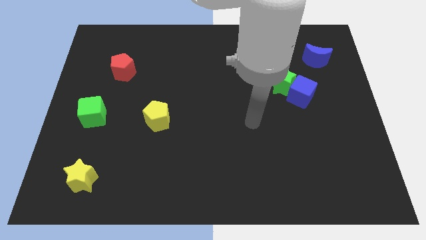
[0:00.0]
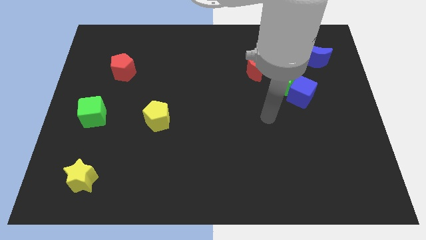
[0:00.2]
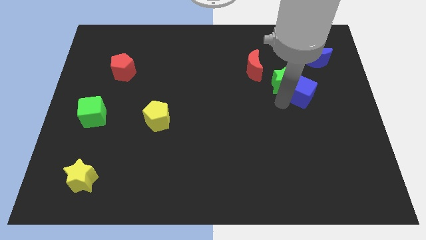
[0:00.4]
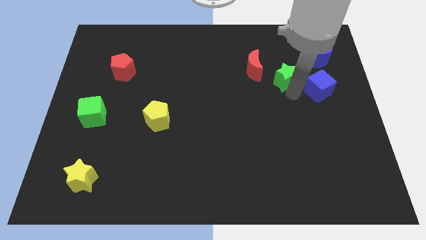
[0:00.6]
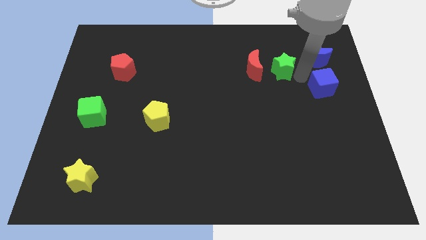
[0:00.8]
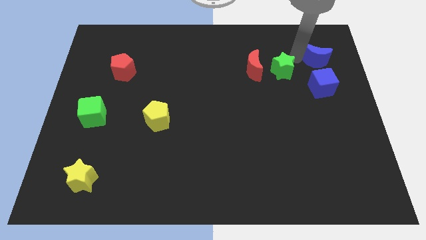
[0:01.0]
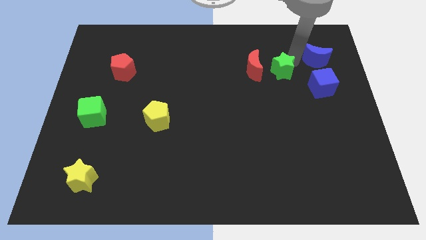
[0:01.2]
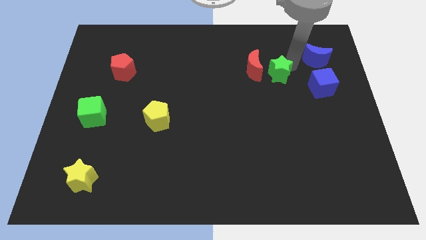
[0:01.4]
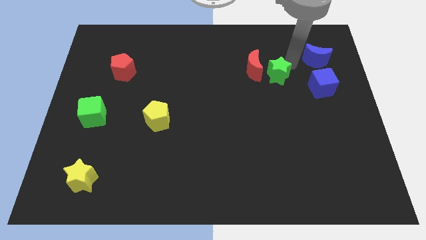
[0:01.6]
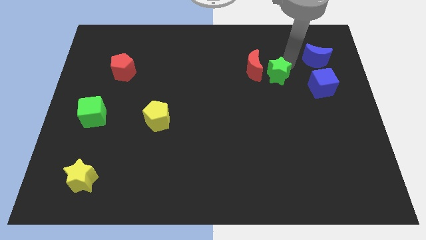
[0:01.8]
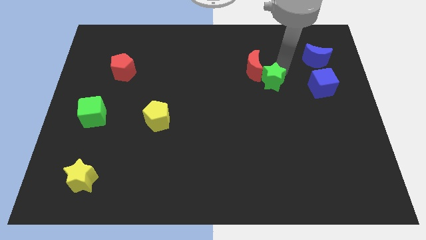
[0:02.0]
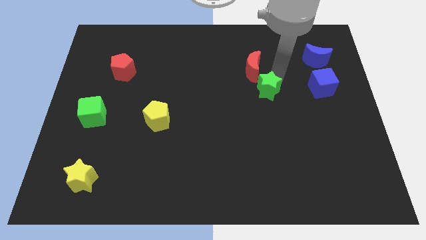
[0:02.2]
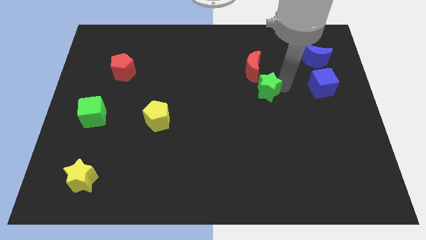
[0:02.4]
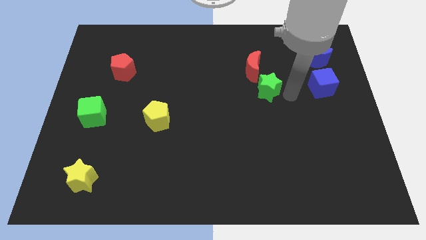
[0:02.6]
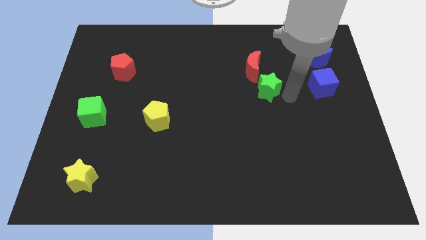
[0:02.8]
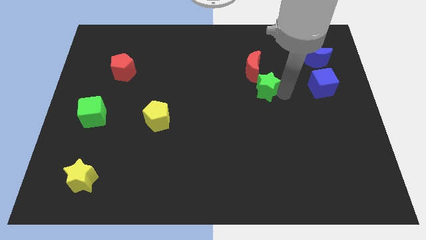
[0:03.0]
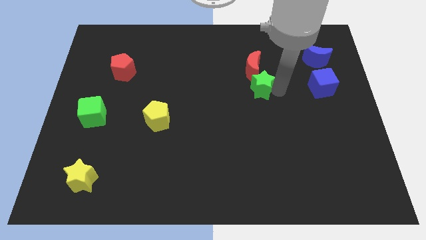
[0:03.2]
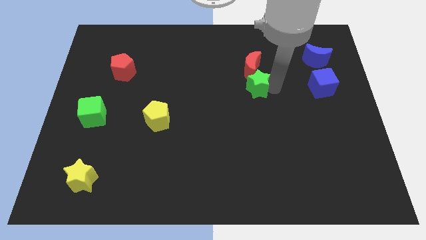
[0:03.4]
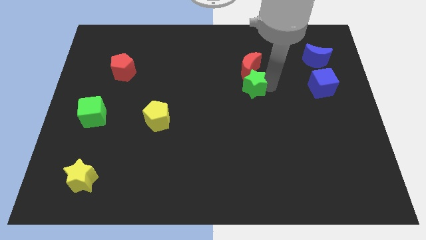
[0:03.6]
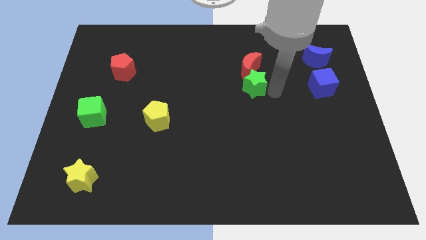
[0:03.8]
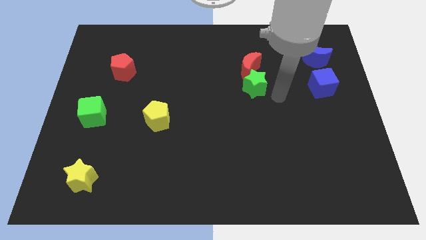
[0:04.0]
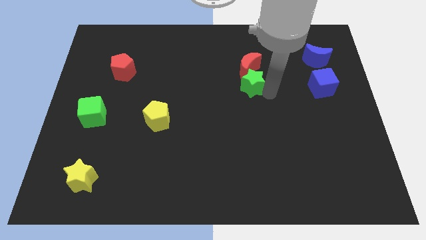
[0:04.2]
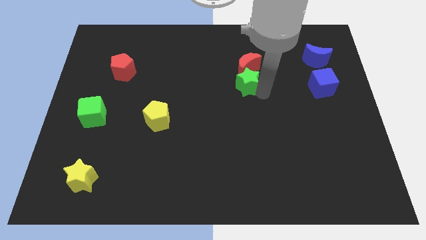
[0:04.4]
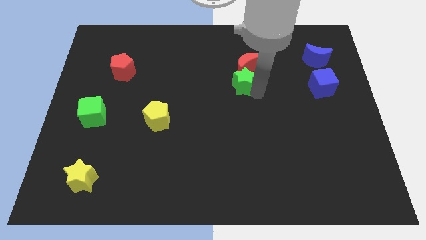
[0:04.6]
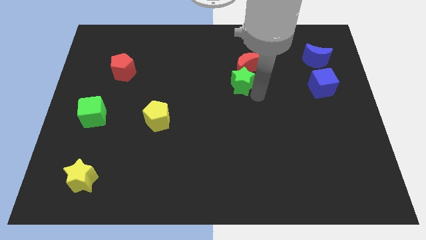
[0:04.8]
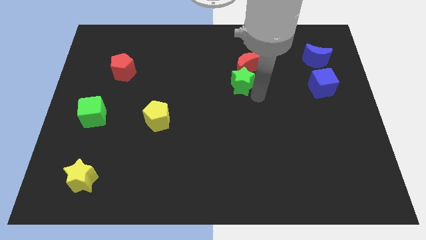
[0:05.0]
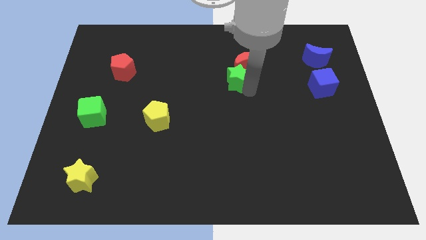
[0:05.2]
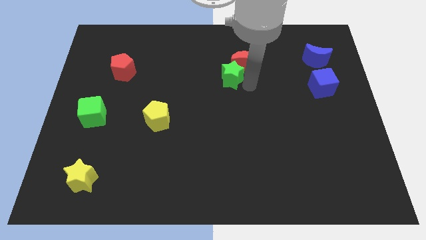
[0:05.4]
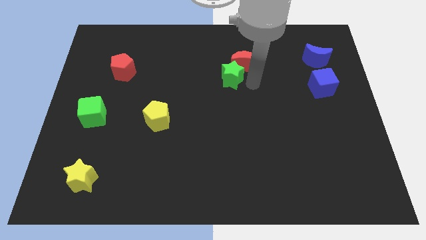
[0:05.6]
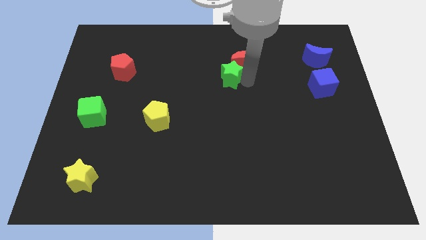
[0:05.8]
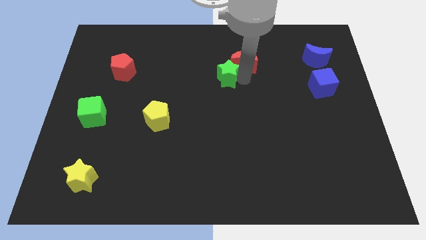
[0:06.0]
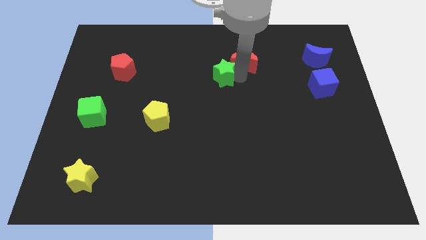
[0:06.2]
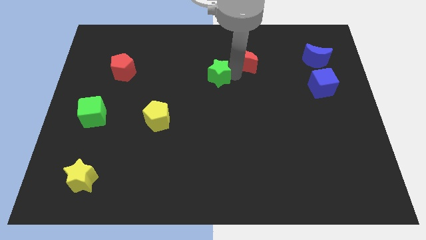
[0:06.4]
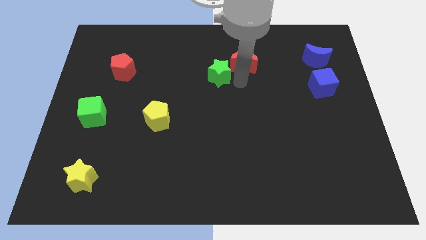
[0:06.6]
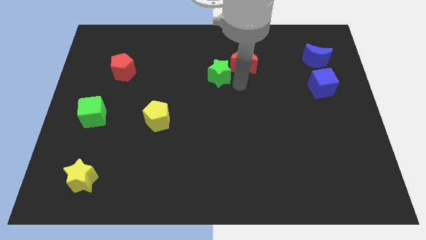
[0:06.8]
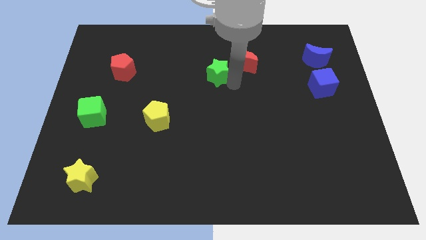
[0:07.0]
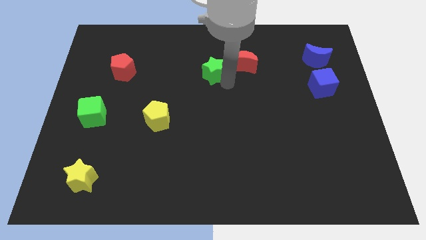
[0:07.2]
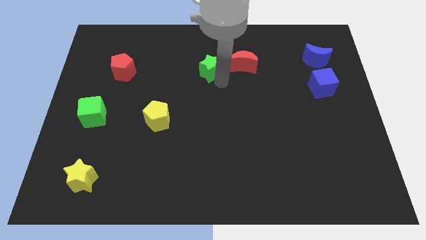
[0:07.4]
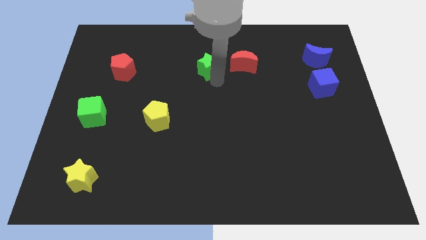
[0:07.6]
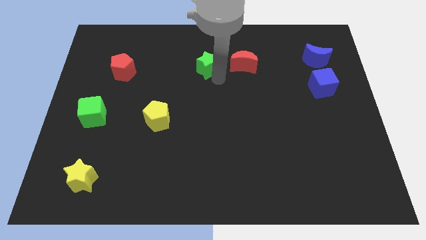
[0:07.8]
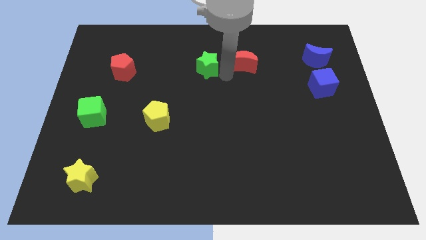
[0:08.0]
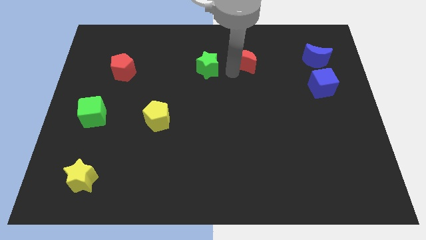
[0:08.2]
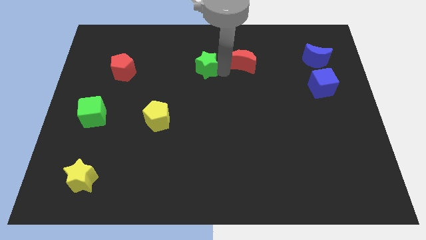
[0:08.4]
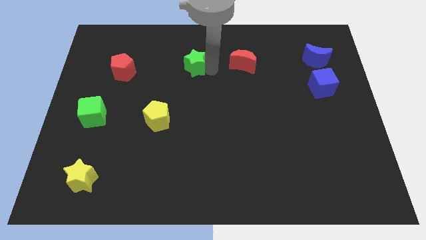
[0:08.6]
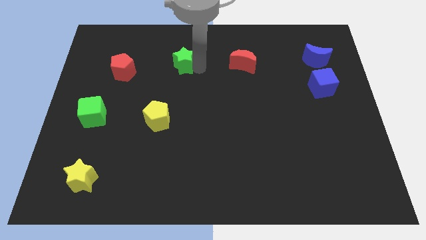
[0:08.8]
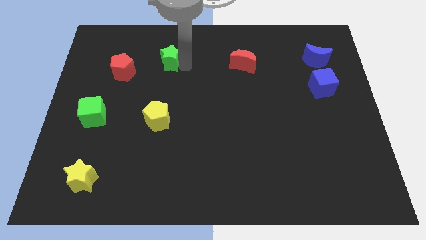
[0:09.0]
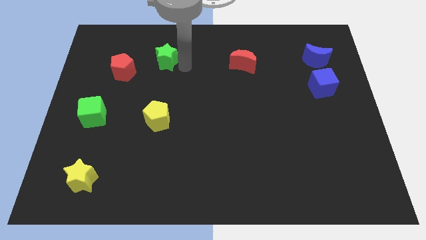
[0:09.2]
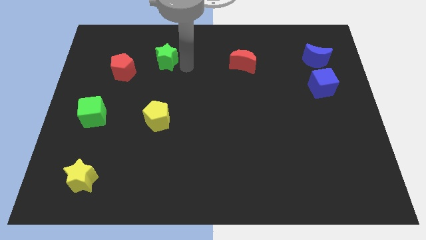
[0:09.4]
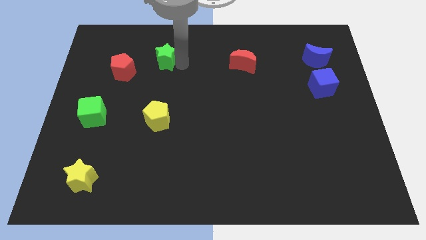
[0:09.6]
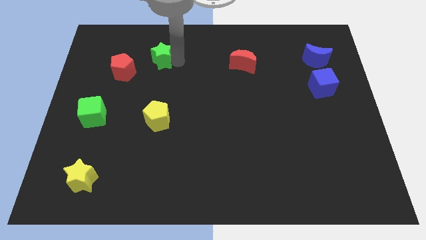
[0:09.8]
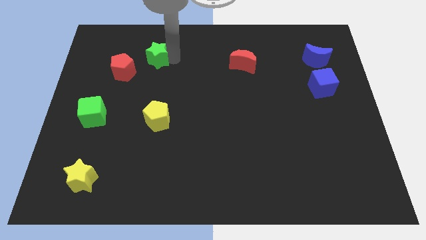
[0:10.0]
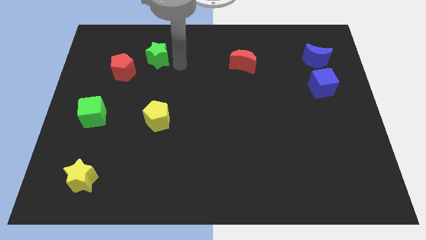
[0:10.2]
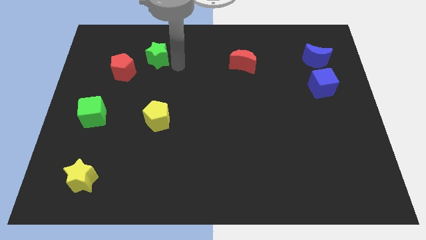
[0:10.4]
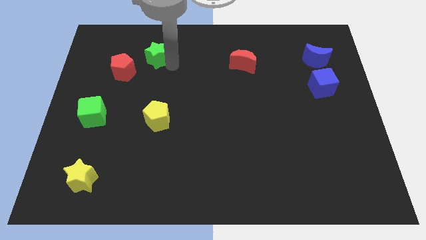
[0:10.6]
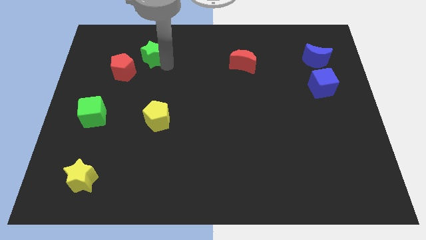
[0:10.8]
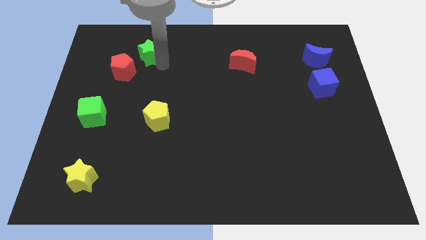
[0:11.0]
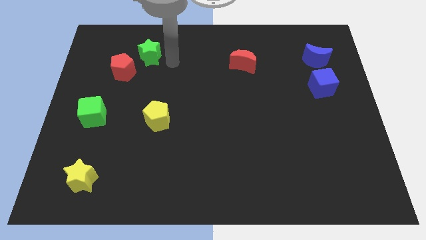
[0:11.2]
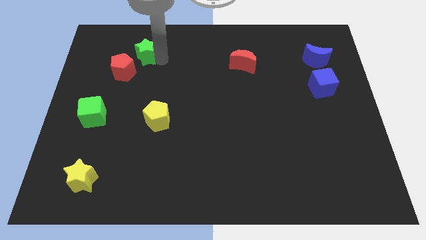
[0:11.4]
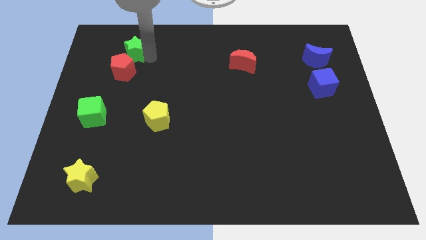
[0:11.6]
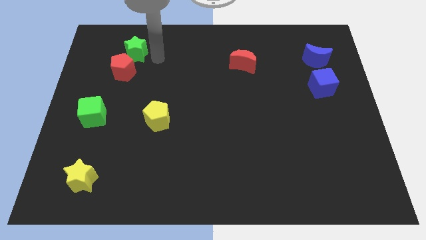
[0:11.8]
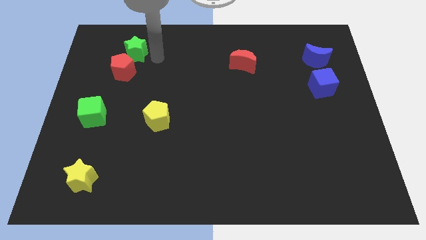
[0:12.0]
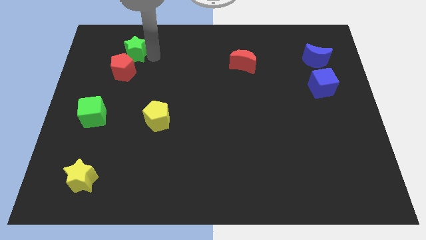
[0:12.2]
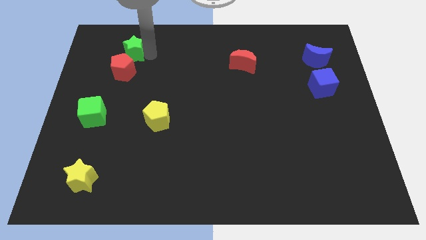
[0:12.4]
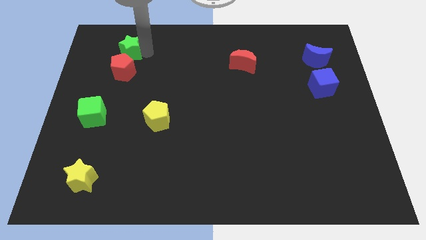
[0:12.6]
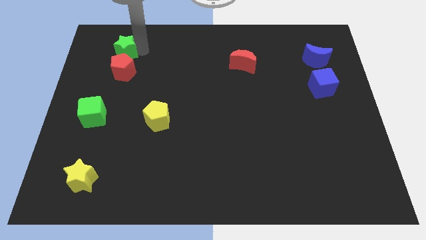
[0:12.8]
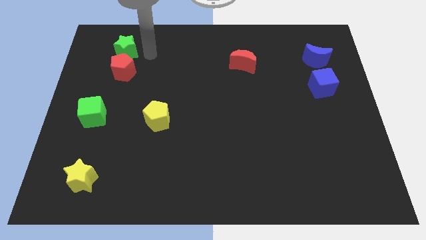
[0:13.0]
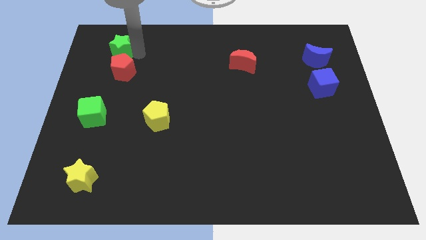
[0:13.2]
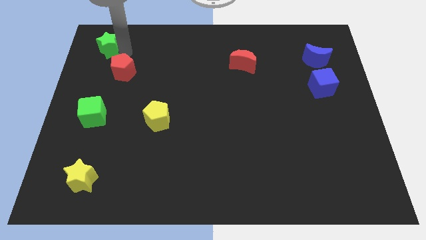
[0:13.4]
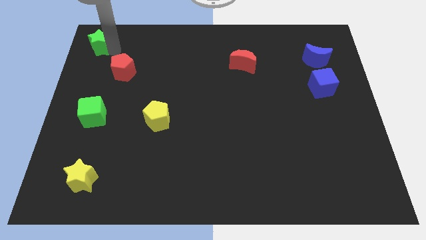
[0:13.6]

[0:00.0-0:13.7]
slide the green star to the upper left corner

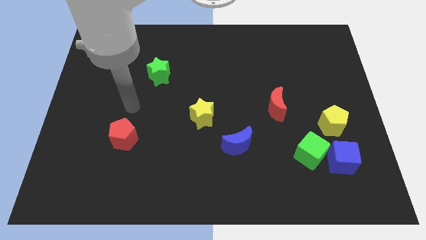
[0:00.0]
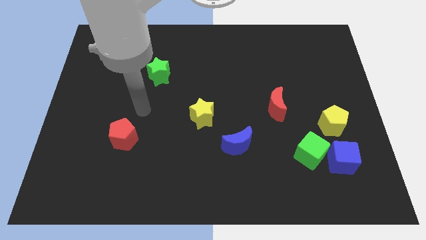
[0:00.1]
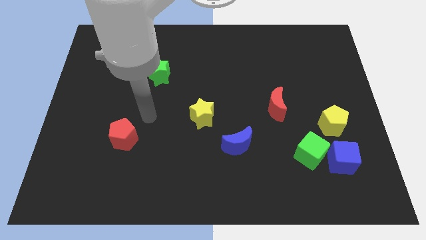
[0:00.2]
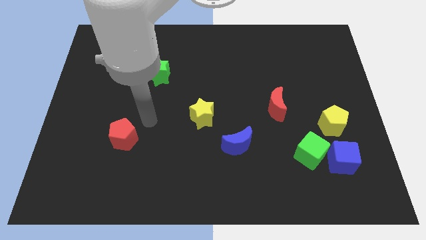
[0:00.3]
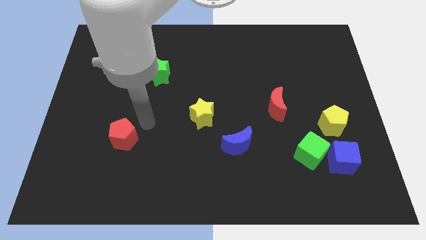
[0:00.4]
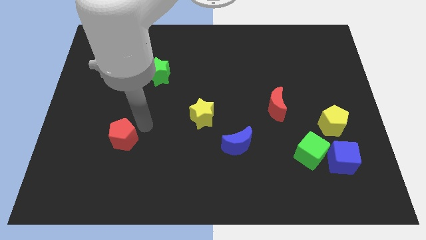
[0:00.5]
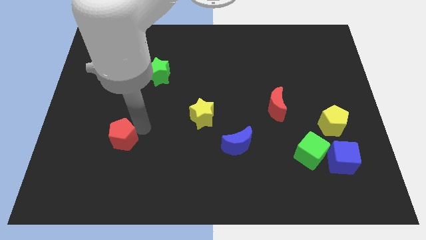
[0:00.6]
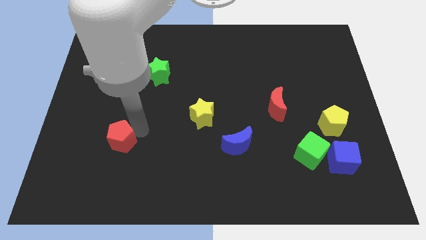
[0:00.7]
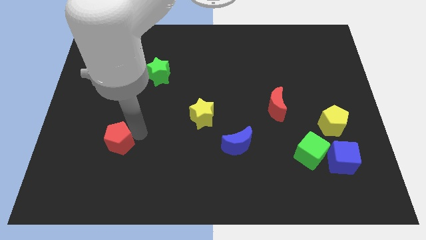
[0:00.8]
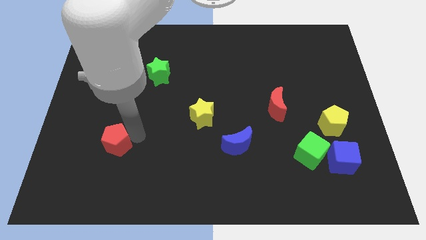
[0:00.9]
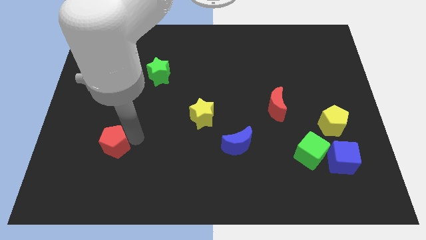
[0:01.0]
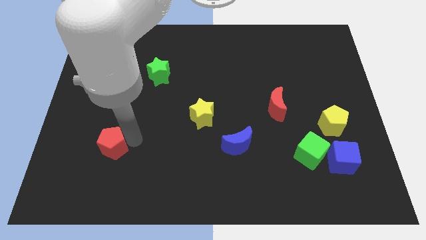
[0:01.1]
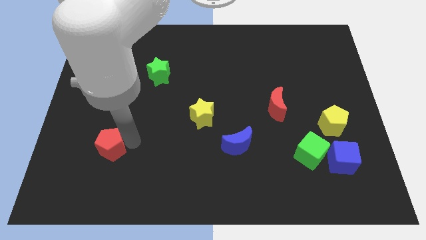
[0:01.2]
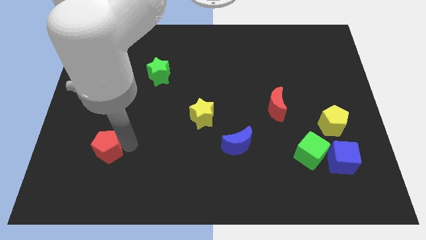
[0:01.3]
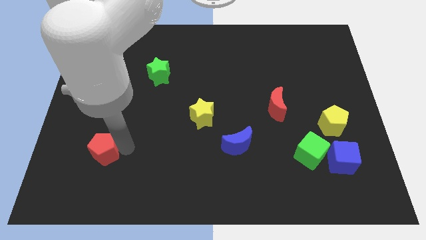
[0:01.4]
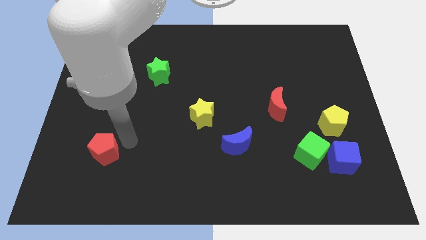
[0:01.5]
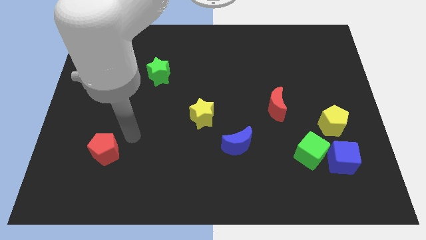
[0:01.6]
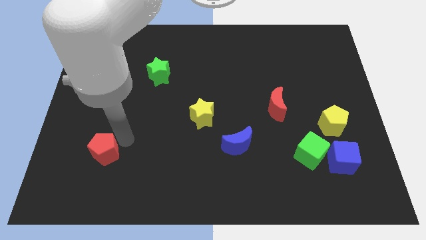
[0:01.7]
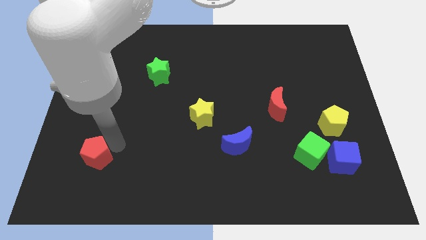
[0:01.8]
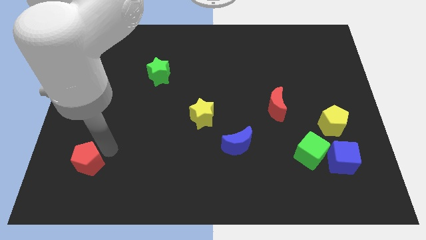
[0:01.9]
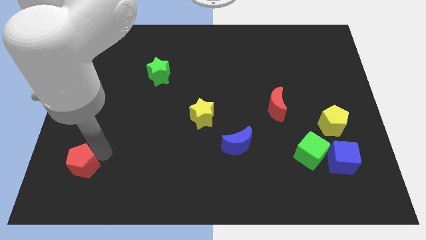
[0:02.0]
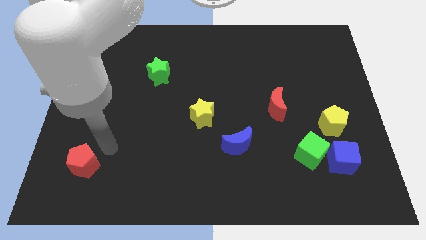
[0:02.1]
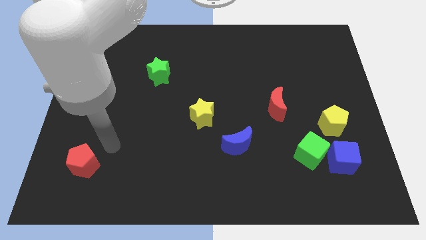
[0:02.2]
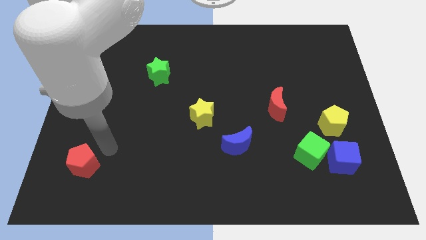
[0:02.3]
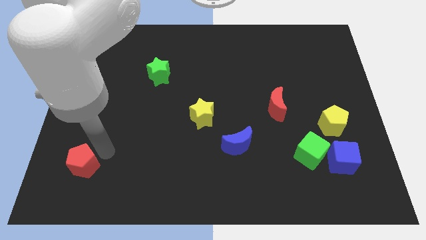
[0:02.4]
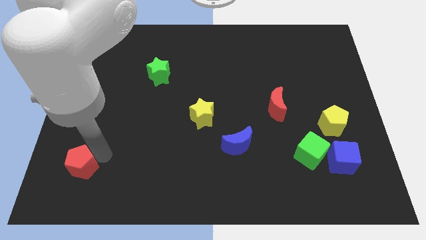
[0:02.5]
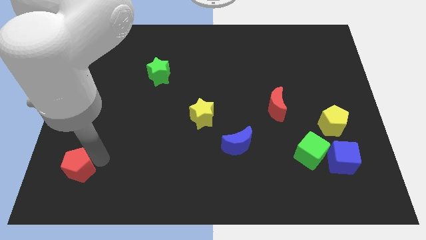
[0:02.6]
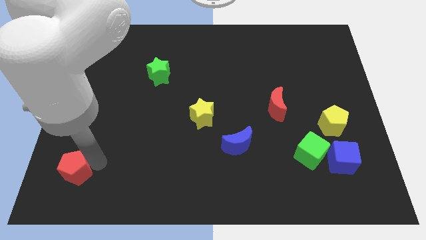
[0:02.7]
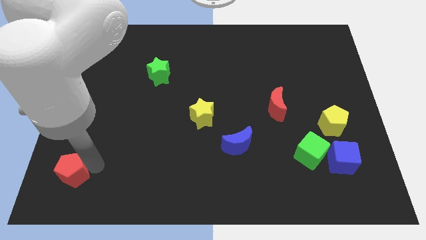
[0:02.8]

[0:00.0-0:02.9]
slide the red pentagon to the bottom left corner
